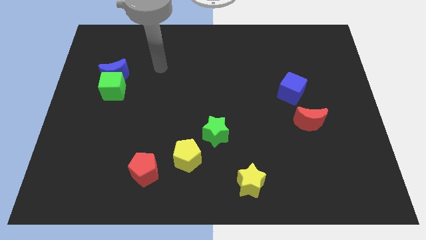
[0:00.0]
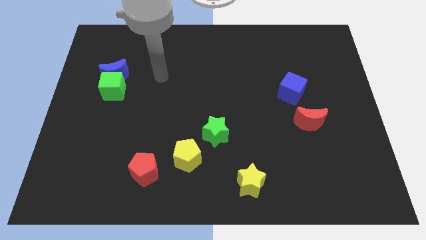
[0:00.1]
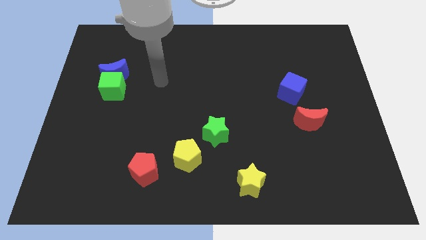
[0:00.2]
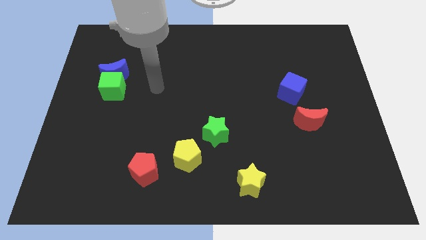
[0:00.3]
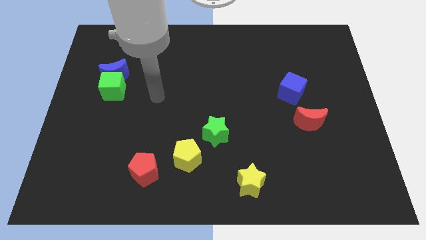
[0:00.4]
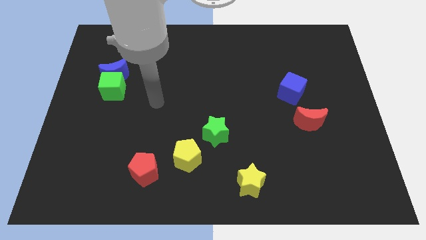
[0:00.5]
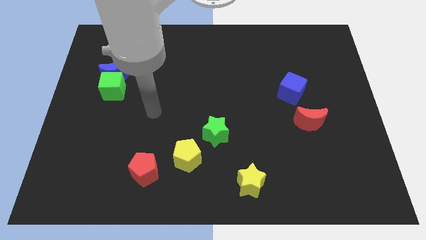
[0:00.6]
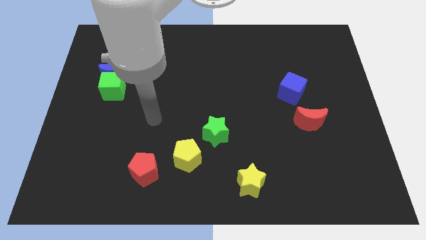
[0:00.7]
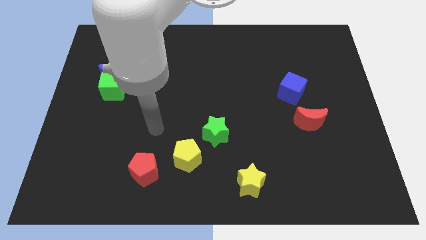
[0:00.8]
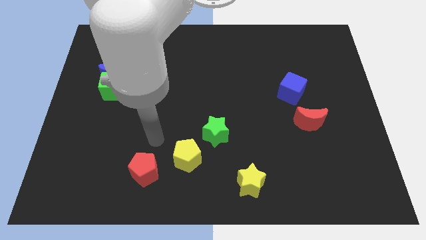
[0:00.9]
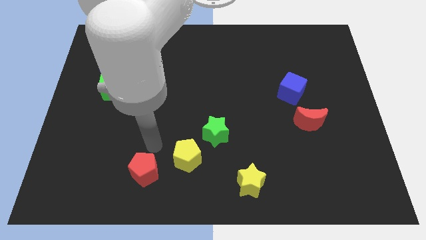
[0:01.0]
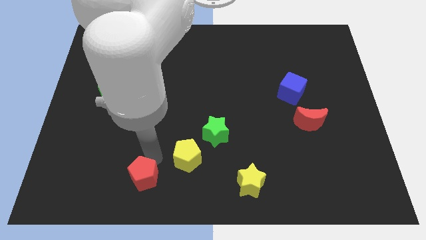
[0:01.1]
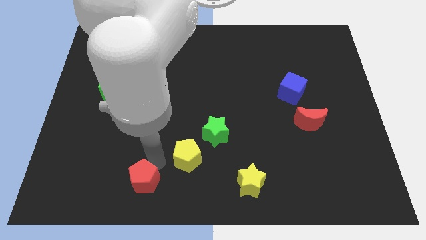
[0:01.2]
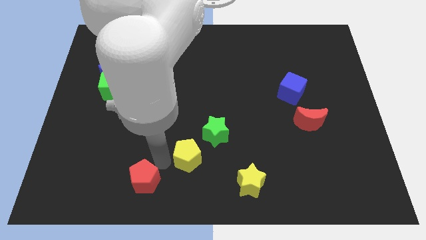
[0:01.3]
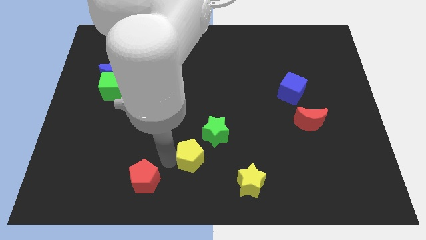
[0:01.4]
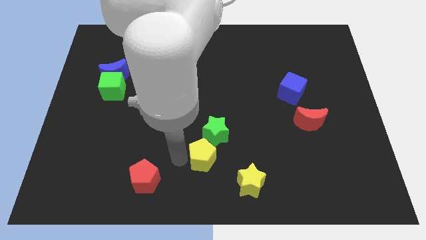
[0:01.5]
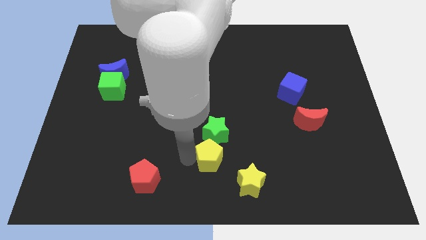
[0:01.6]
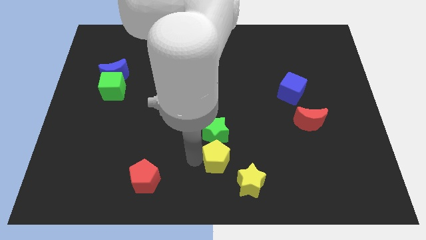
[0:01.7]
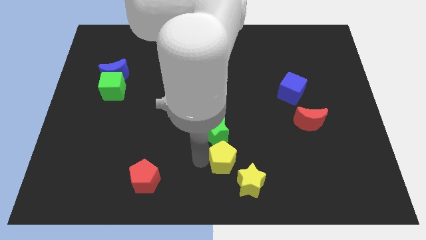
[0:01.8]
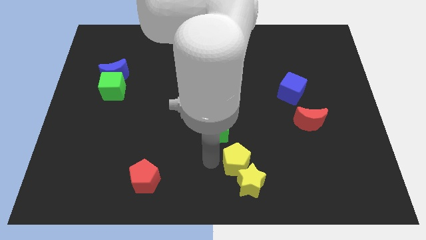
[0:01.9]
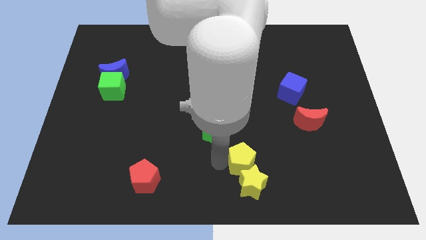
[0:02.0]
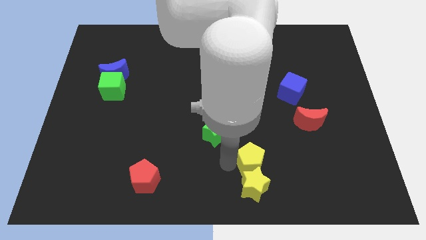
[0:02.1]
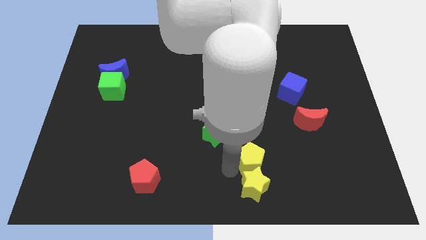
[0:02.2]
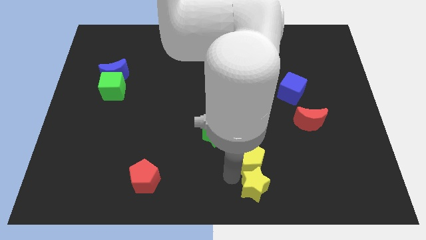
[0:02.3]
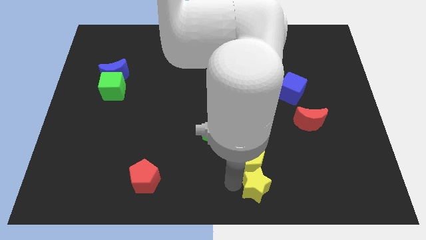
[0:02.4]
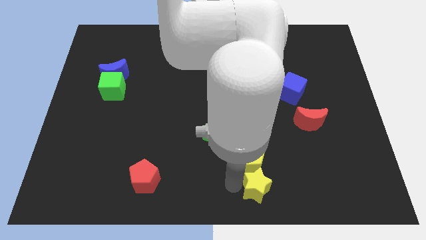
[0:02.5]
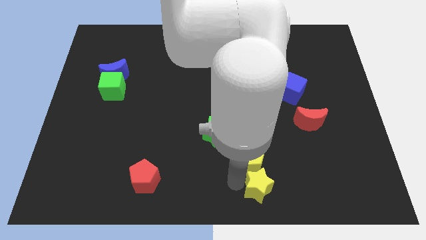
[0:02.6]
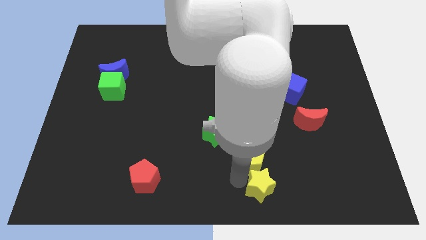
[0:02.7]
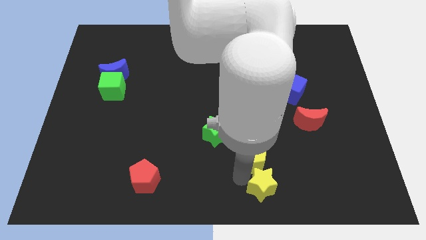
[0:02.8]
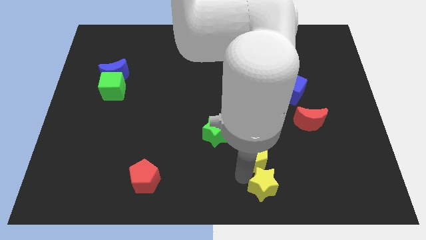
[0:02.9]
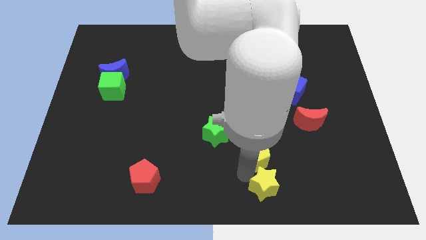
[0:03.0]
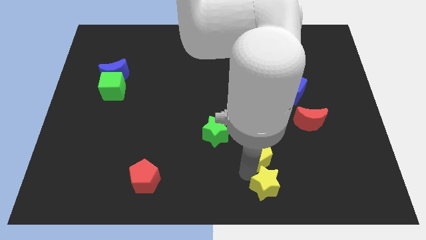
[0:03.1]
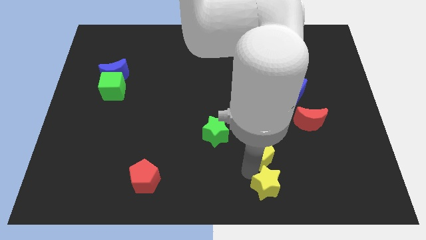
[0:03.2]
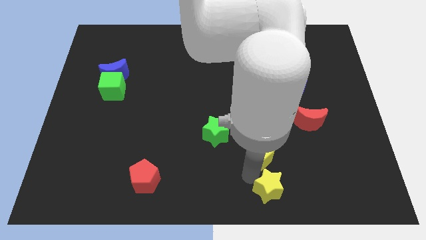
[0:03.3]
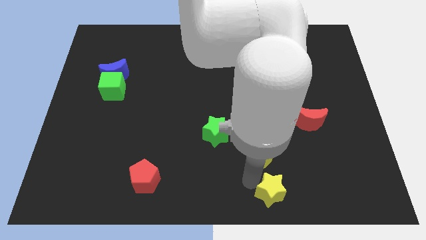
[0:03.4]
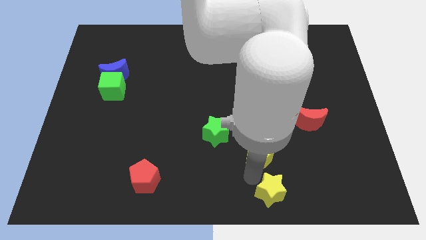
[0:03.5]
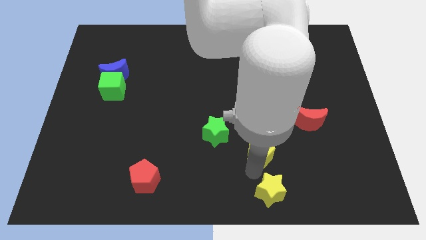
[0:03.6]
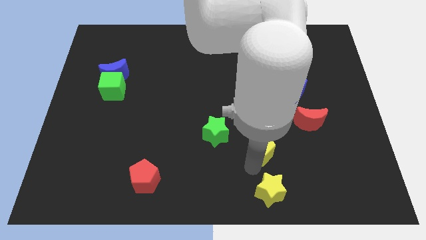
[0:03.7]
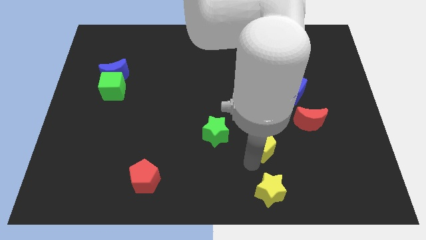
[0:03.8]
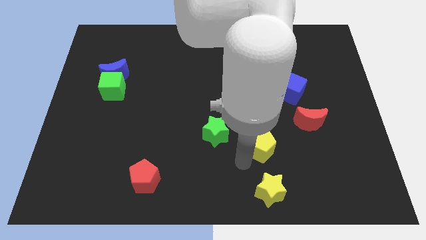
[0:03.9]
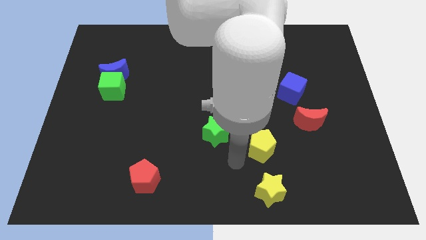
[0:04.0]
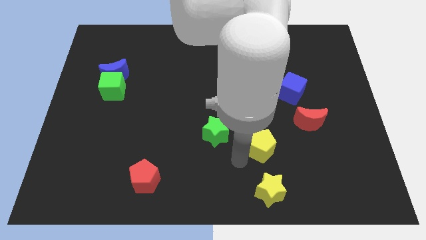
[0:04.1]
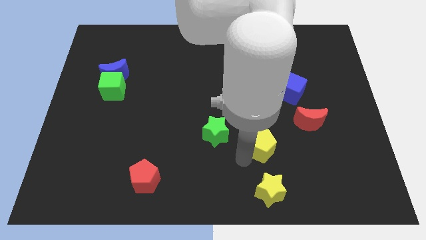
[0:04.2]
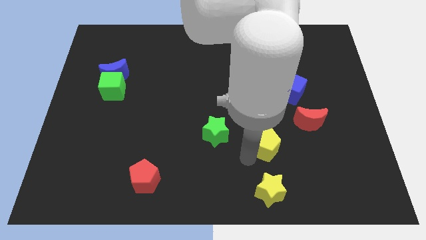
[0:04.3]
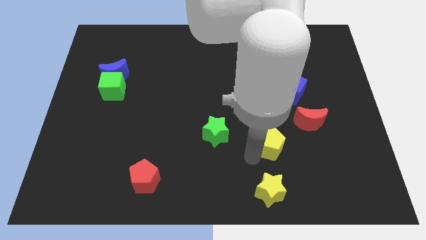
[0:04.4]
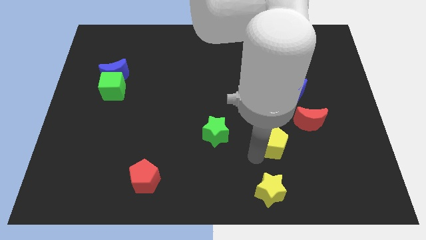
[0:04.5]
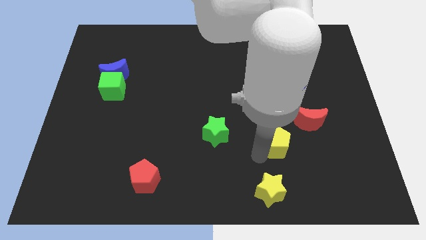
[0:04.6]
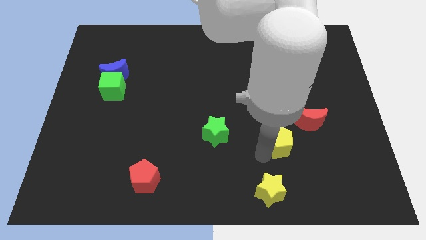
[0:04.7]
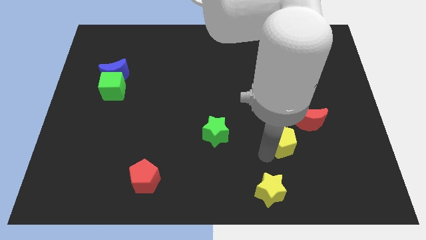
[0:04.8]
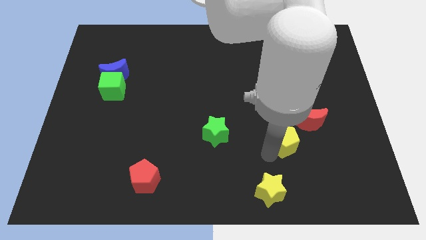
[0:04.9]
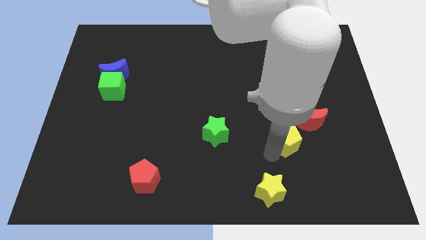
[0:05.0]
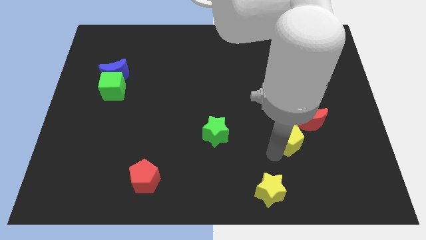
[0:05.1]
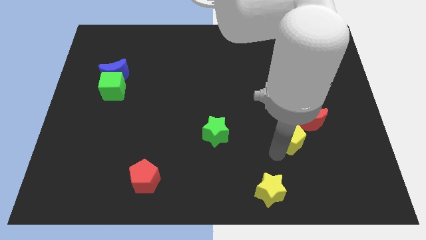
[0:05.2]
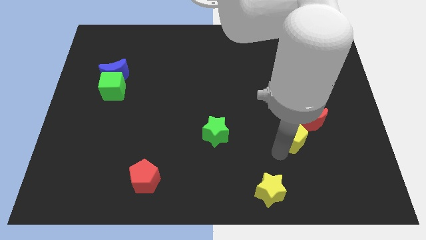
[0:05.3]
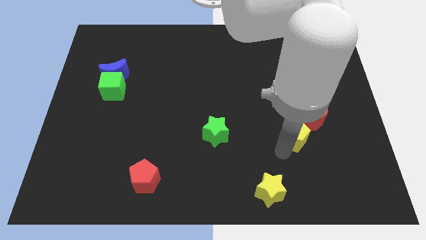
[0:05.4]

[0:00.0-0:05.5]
slide the yellow pentagon to the red moon
